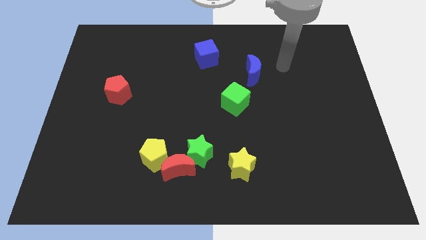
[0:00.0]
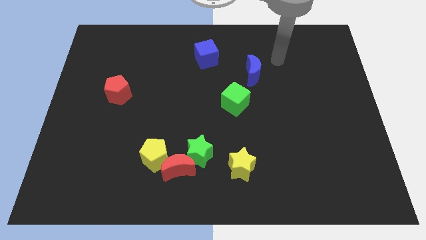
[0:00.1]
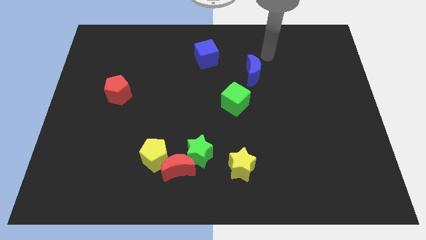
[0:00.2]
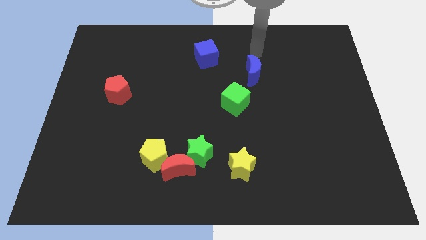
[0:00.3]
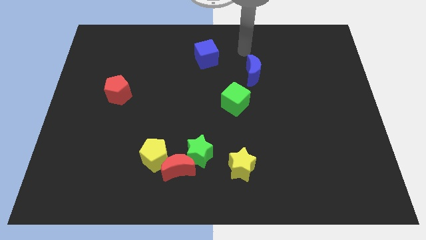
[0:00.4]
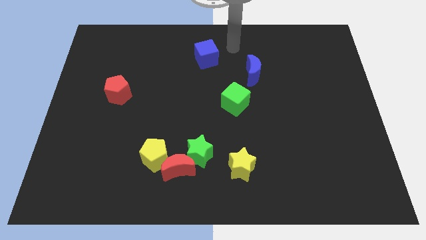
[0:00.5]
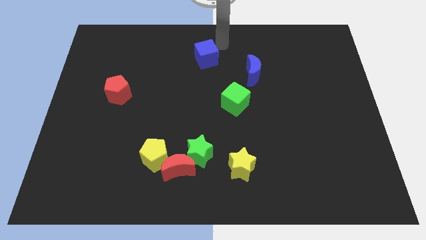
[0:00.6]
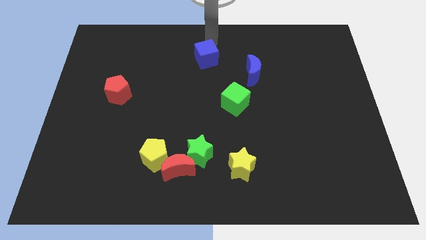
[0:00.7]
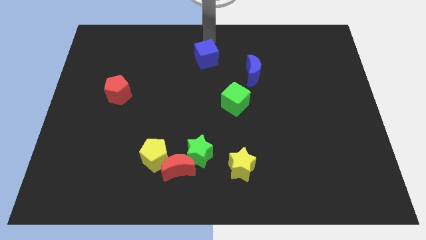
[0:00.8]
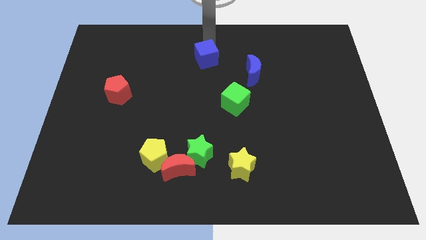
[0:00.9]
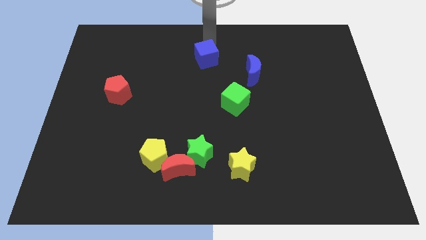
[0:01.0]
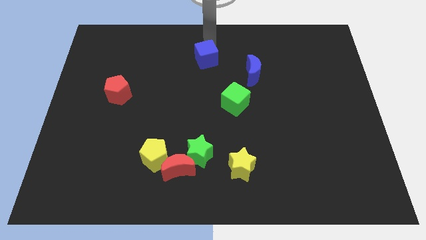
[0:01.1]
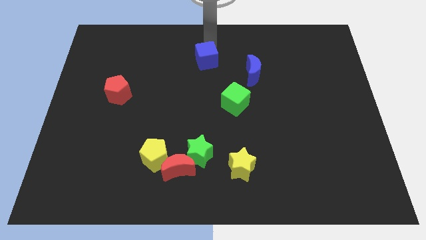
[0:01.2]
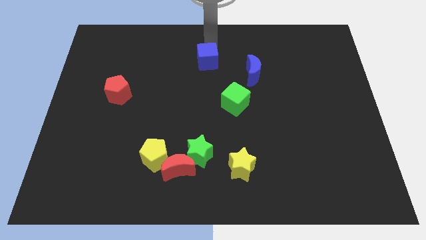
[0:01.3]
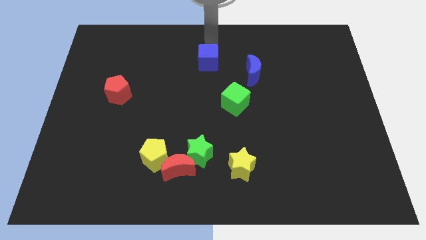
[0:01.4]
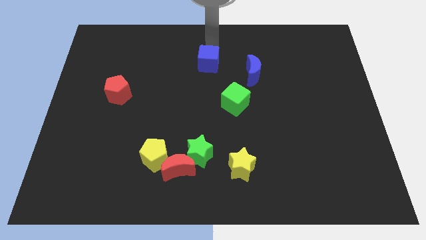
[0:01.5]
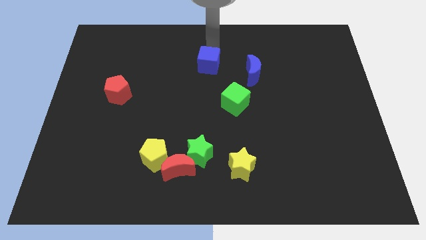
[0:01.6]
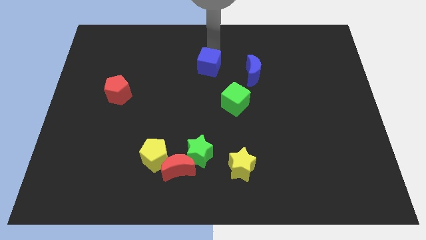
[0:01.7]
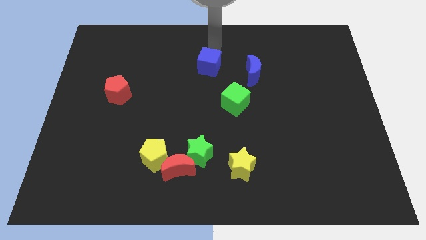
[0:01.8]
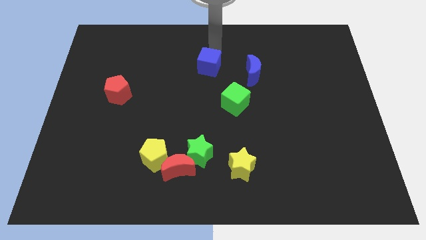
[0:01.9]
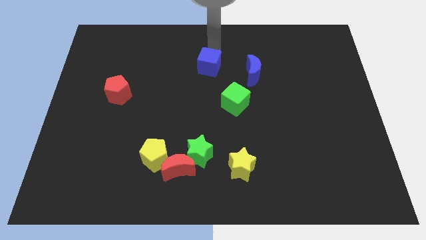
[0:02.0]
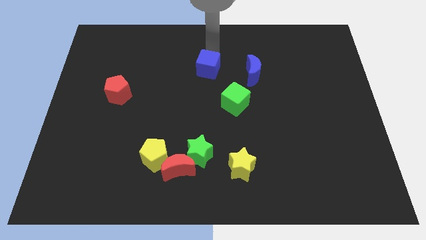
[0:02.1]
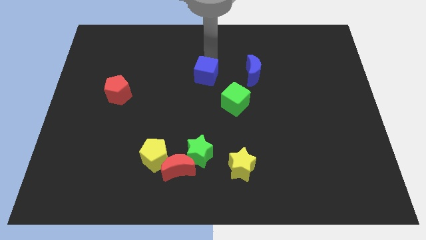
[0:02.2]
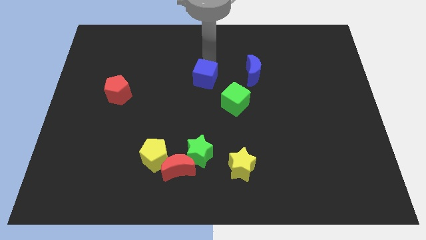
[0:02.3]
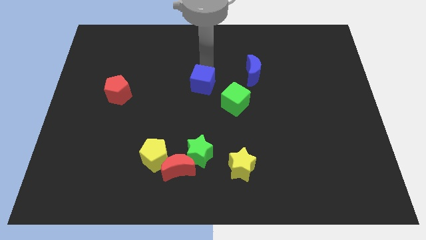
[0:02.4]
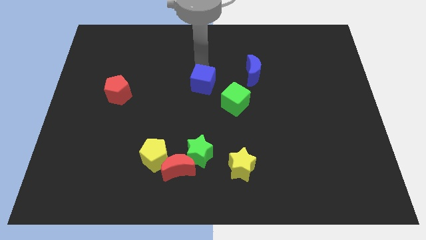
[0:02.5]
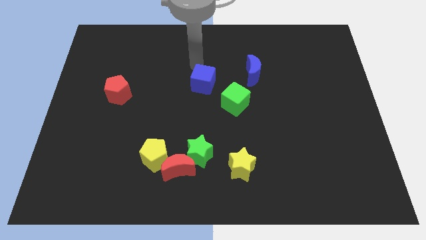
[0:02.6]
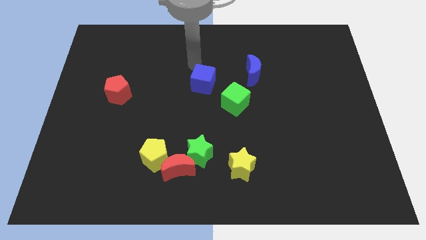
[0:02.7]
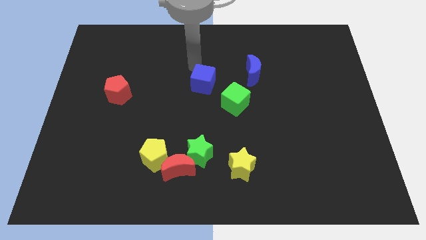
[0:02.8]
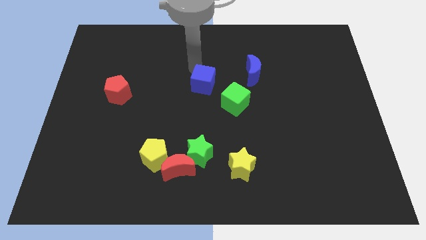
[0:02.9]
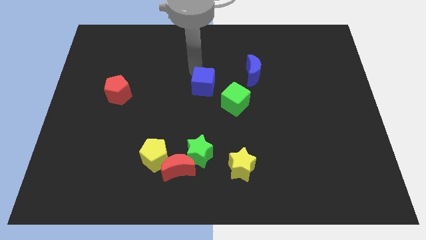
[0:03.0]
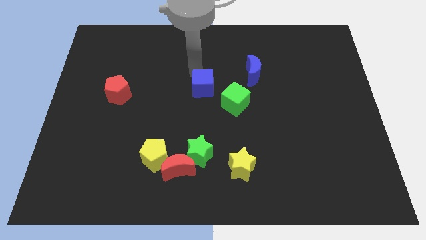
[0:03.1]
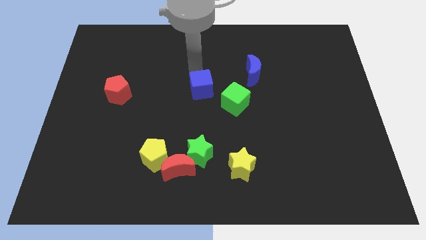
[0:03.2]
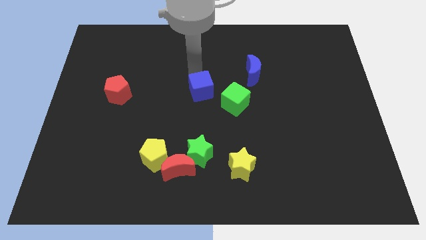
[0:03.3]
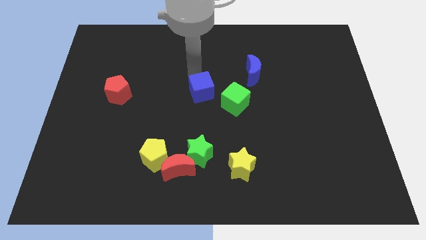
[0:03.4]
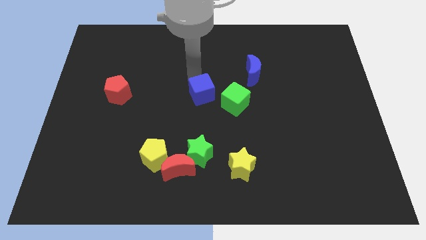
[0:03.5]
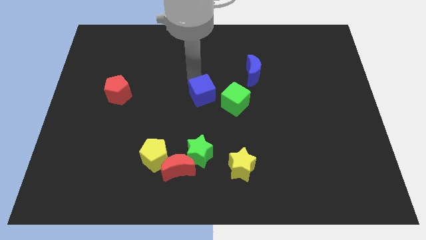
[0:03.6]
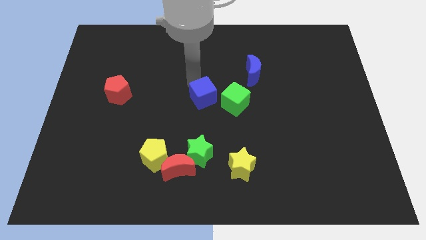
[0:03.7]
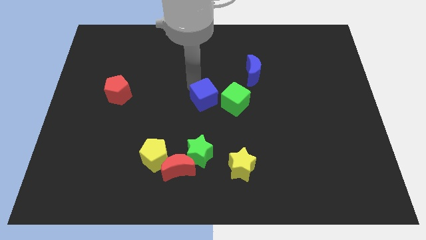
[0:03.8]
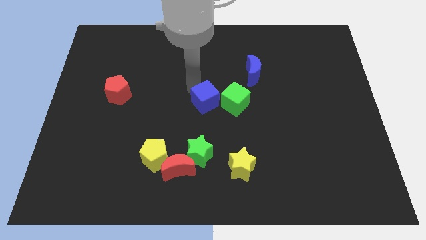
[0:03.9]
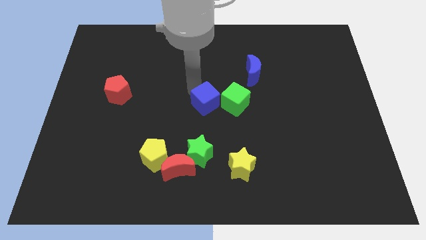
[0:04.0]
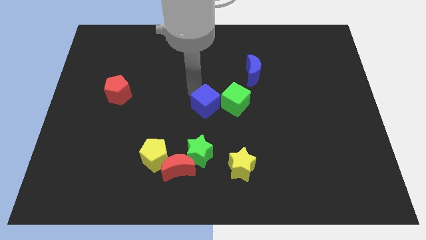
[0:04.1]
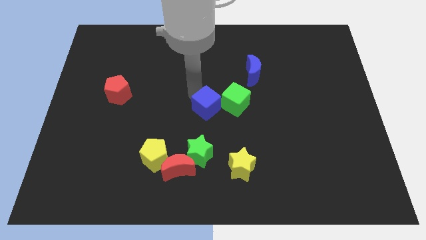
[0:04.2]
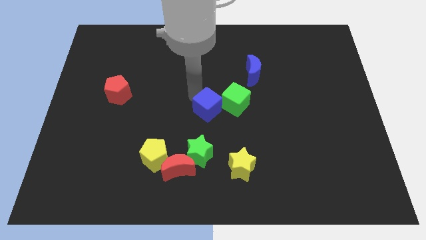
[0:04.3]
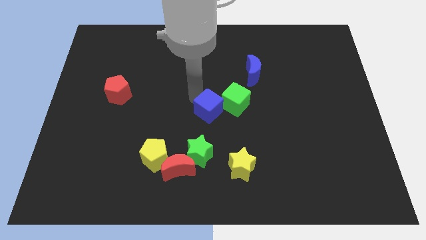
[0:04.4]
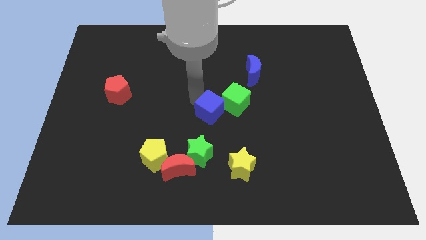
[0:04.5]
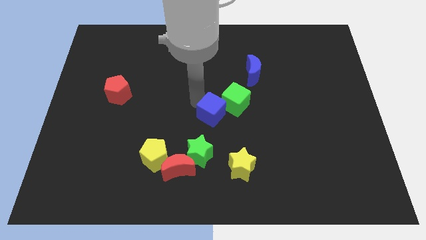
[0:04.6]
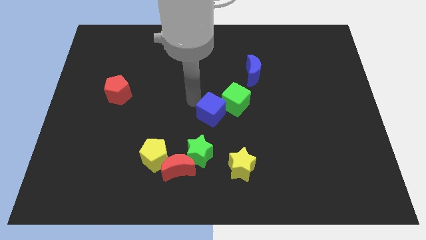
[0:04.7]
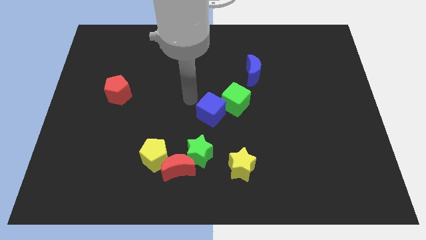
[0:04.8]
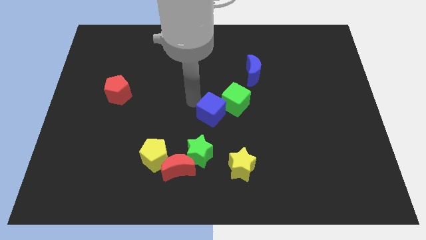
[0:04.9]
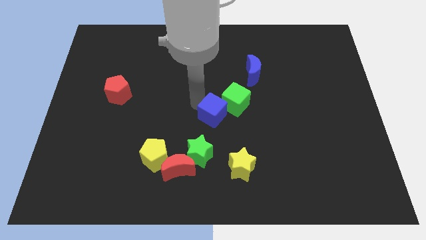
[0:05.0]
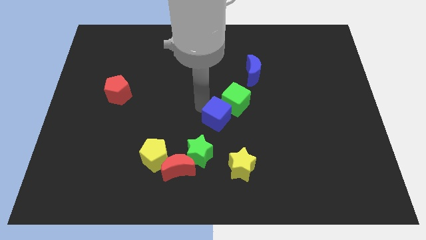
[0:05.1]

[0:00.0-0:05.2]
slide the blue cube to the bottom of the green cube

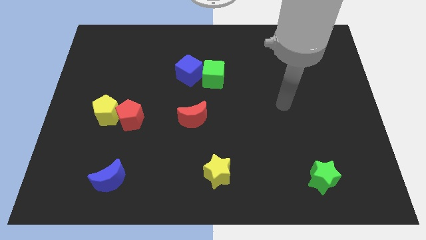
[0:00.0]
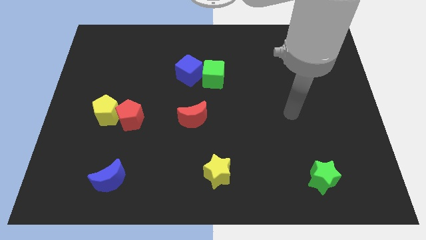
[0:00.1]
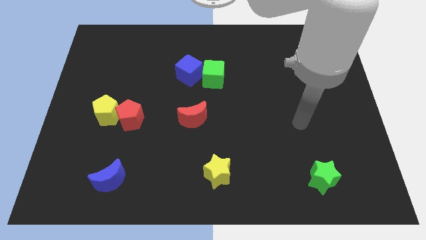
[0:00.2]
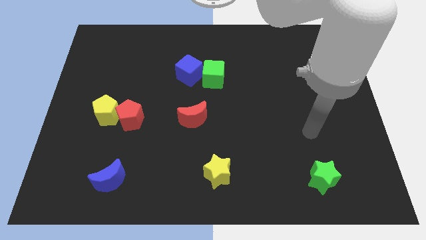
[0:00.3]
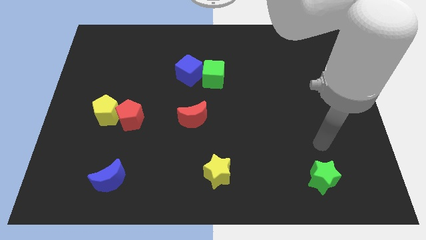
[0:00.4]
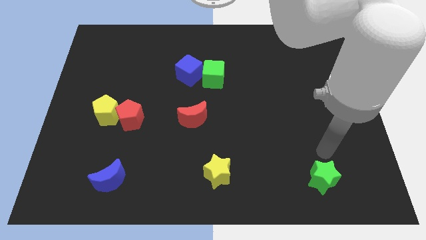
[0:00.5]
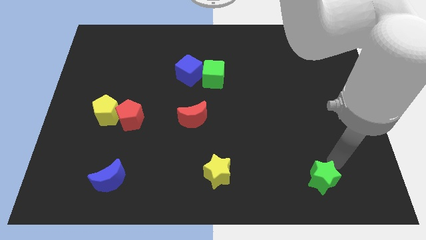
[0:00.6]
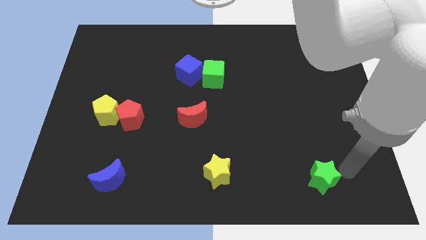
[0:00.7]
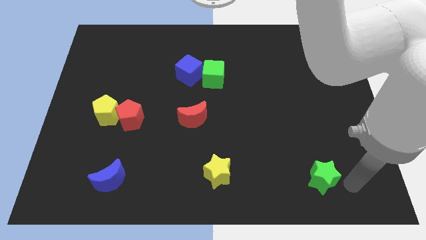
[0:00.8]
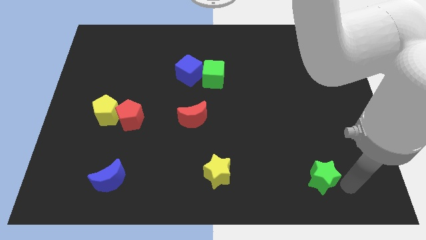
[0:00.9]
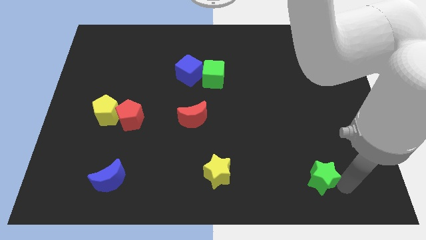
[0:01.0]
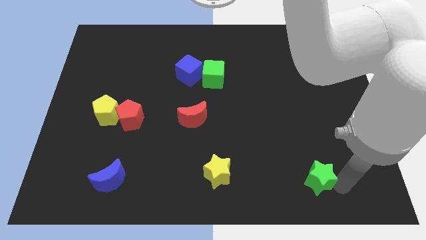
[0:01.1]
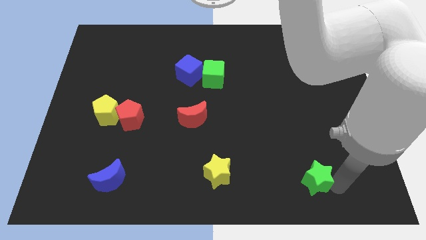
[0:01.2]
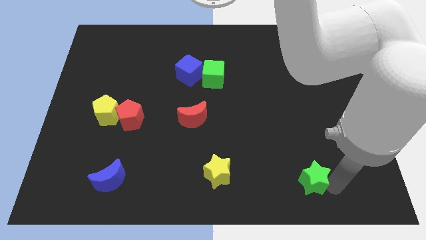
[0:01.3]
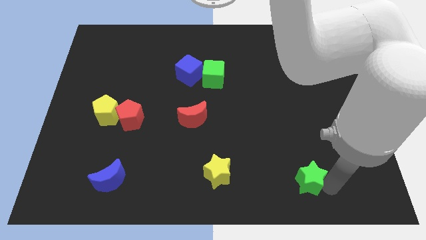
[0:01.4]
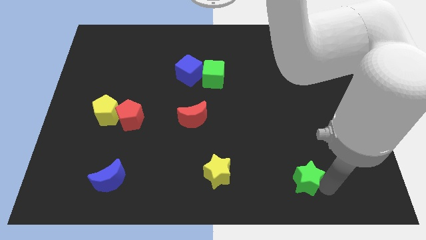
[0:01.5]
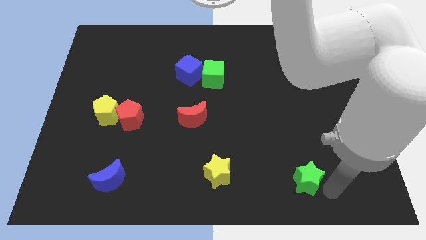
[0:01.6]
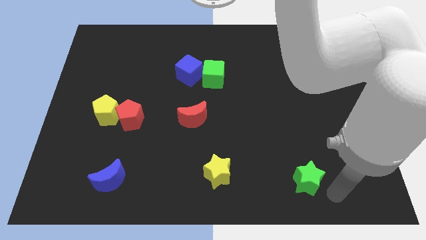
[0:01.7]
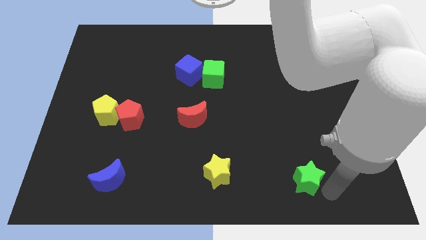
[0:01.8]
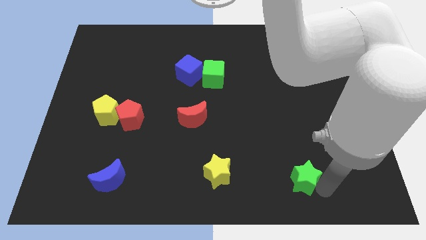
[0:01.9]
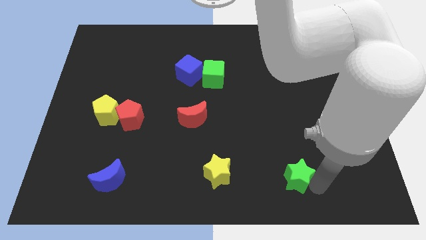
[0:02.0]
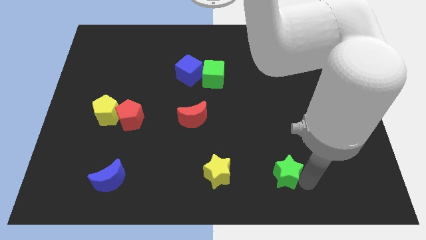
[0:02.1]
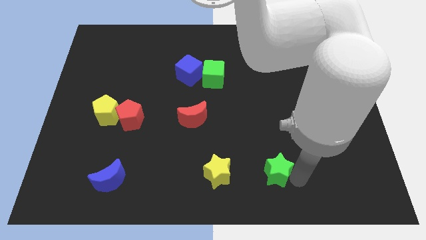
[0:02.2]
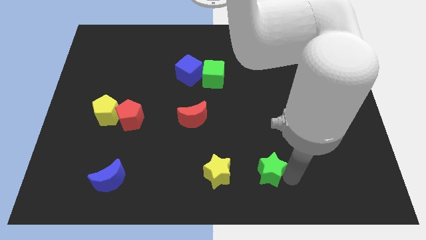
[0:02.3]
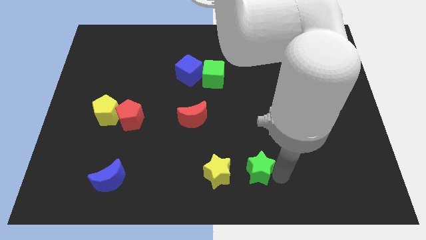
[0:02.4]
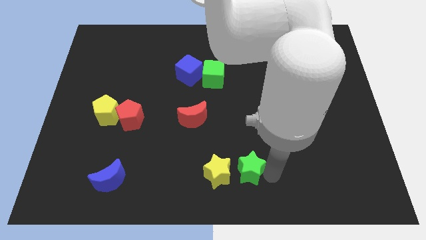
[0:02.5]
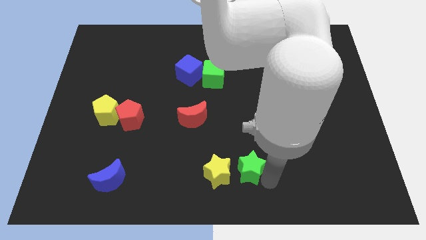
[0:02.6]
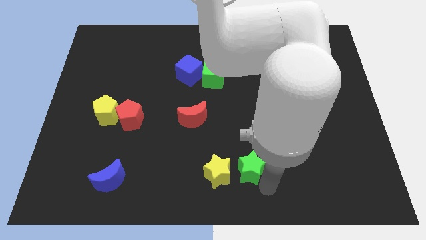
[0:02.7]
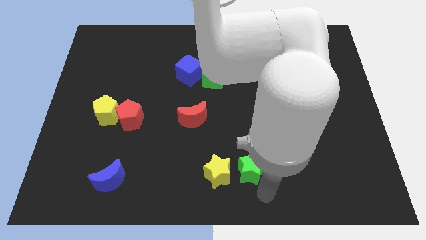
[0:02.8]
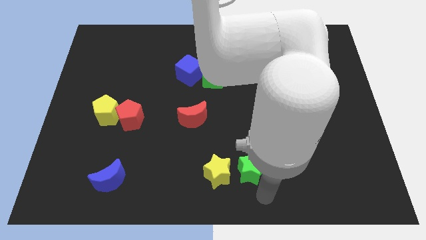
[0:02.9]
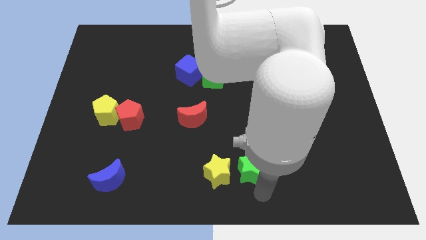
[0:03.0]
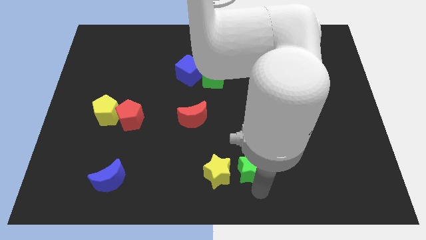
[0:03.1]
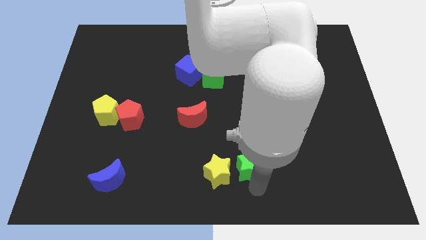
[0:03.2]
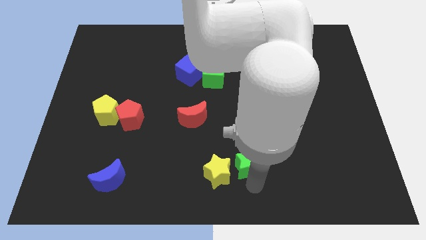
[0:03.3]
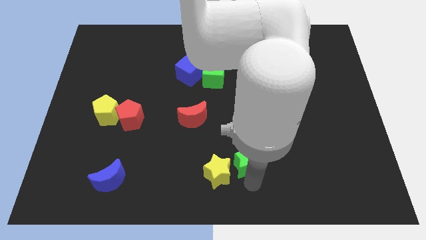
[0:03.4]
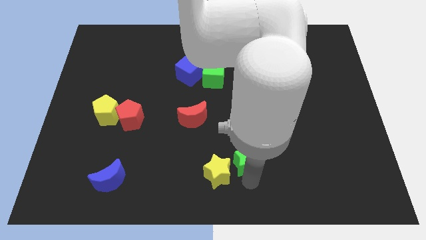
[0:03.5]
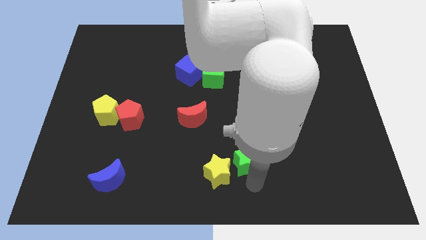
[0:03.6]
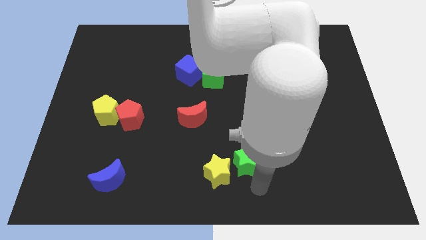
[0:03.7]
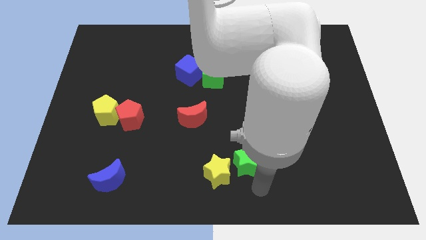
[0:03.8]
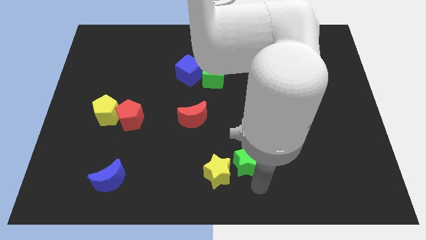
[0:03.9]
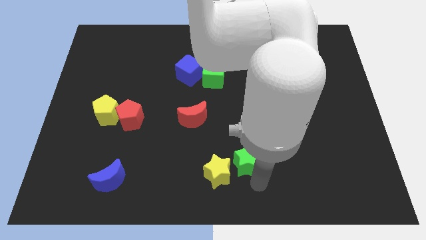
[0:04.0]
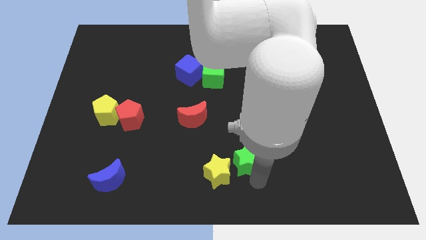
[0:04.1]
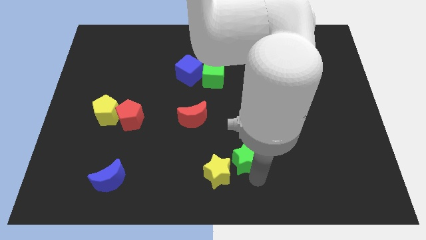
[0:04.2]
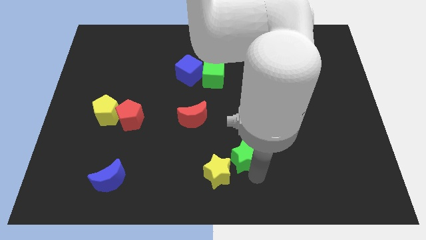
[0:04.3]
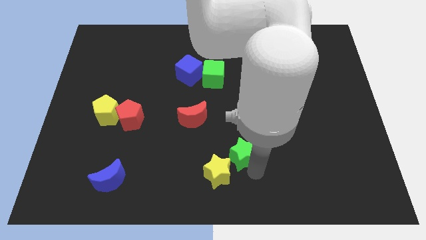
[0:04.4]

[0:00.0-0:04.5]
put the green star to the top of the yellow star
